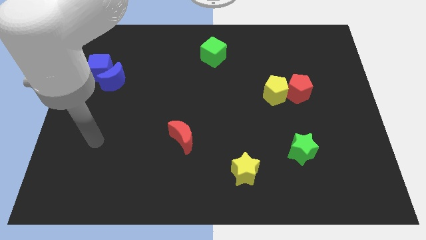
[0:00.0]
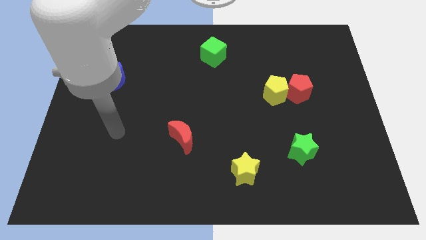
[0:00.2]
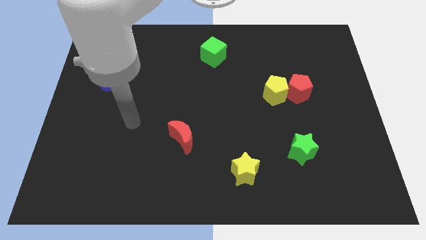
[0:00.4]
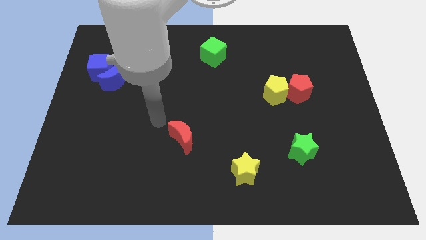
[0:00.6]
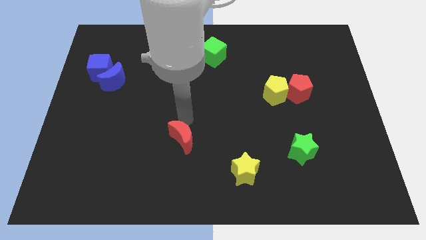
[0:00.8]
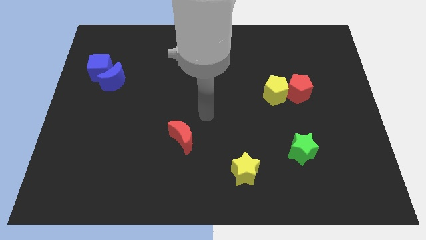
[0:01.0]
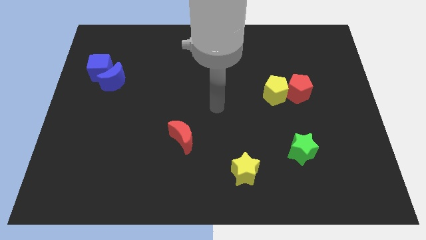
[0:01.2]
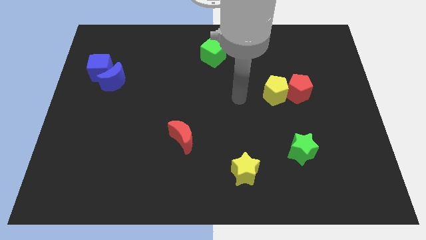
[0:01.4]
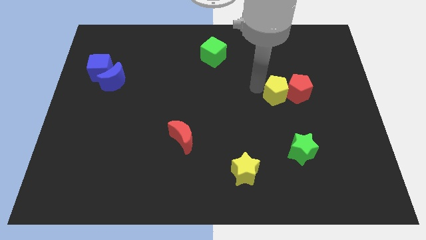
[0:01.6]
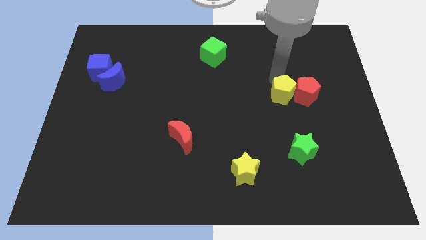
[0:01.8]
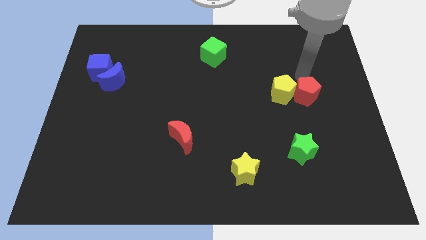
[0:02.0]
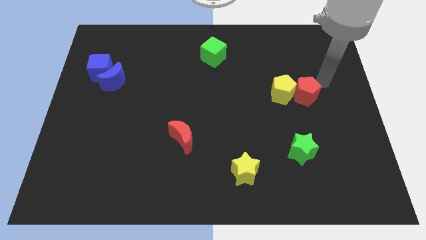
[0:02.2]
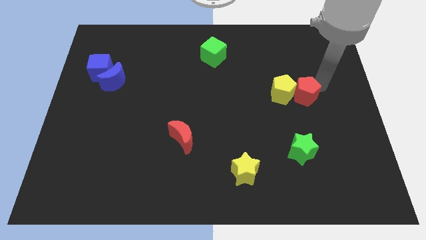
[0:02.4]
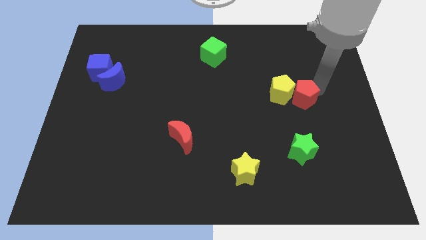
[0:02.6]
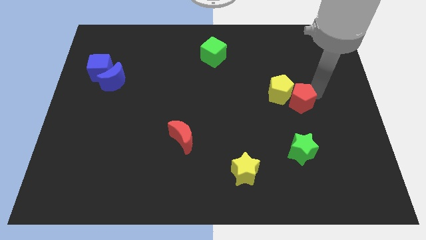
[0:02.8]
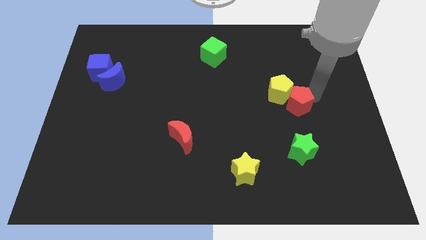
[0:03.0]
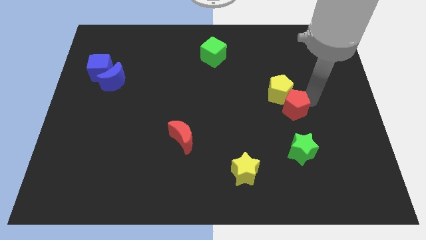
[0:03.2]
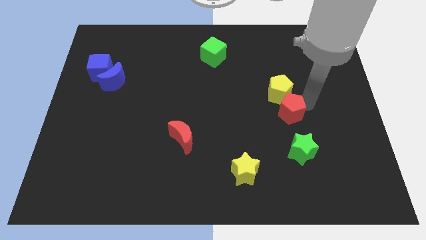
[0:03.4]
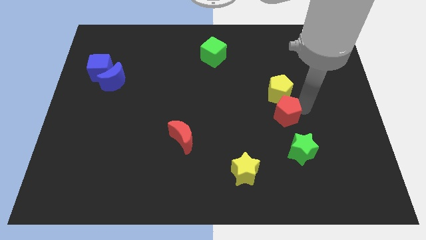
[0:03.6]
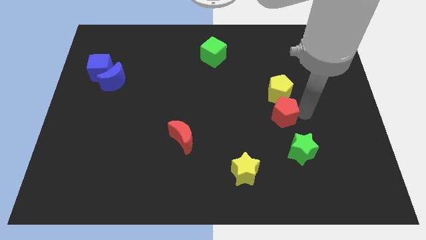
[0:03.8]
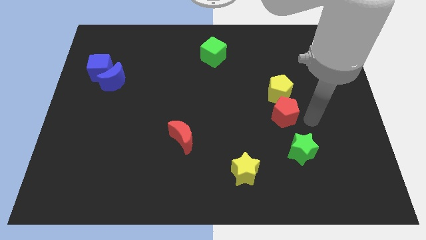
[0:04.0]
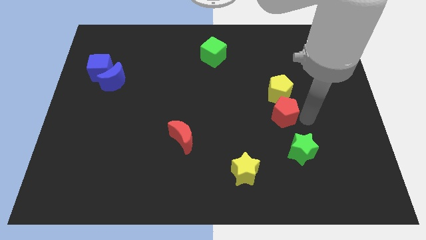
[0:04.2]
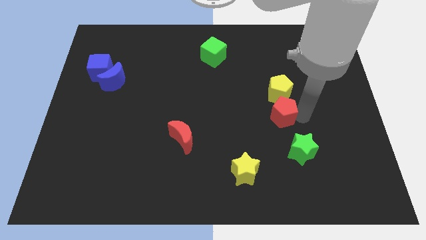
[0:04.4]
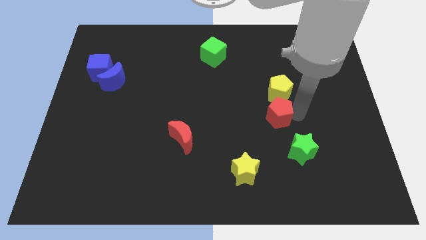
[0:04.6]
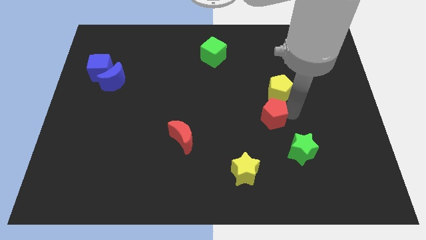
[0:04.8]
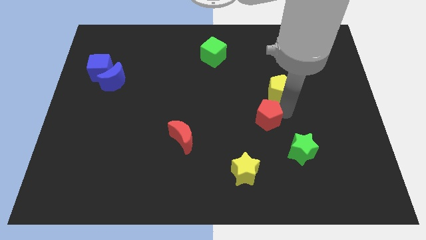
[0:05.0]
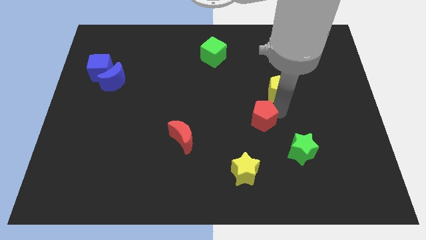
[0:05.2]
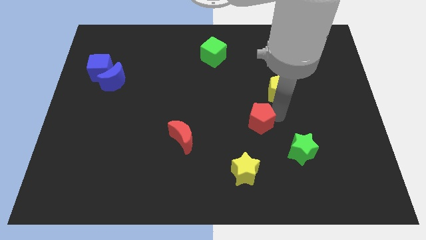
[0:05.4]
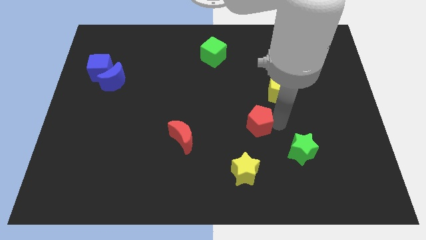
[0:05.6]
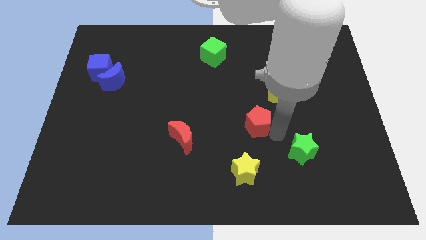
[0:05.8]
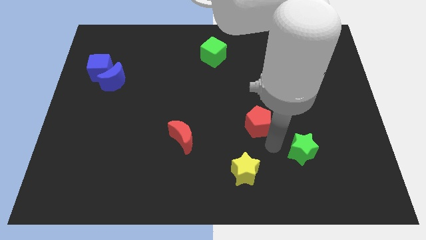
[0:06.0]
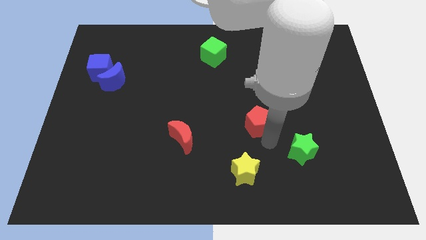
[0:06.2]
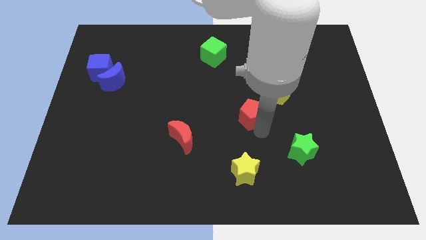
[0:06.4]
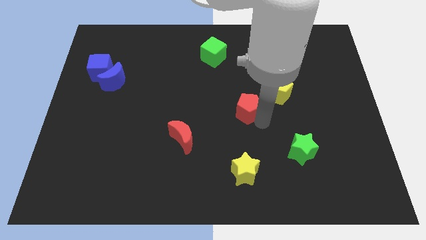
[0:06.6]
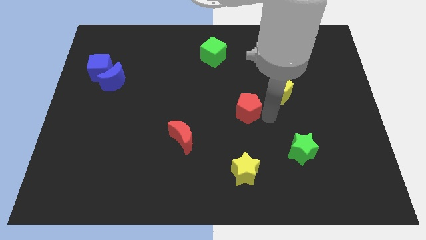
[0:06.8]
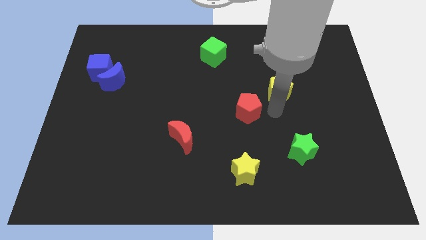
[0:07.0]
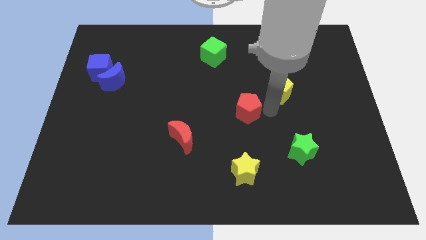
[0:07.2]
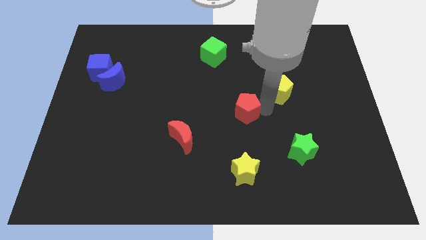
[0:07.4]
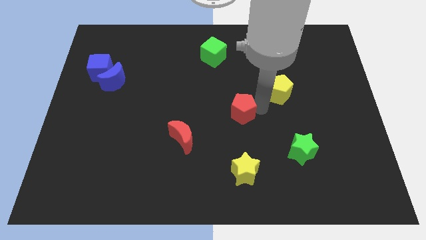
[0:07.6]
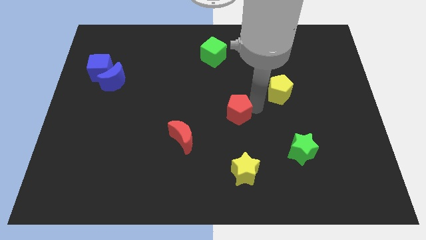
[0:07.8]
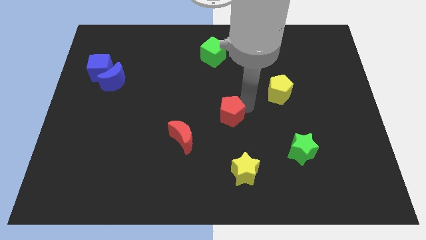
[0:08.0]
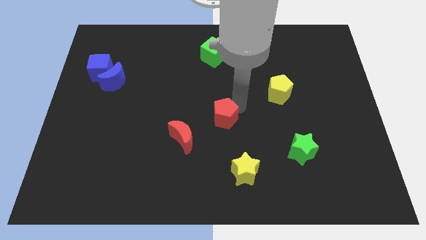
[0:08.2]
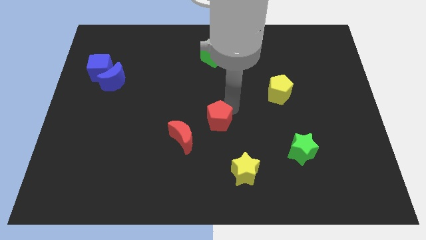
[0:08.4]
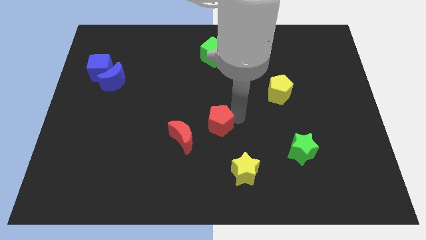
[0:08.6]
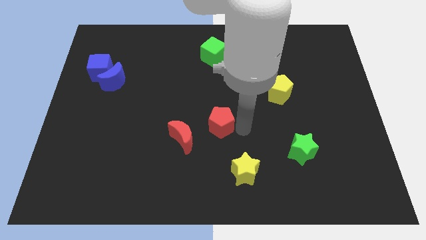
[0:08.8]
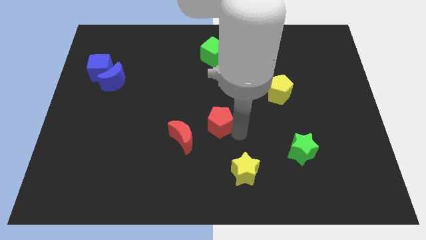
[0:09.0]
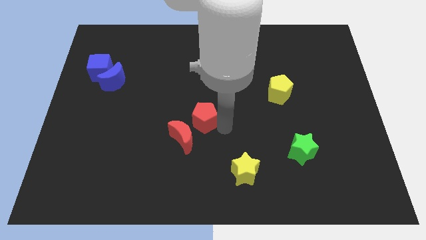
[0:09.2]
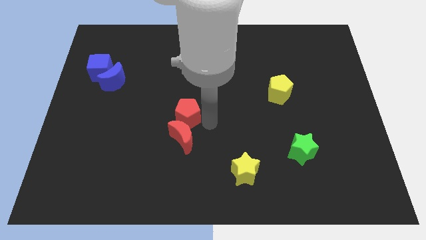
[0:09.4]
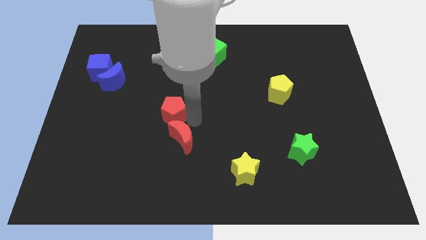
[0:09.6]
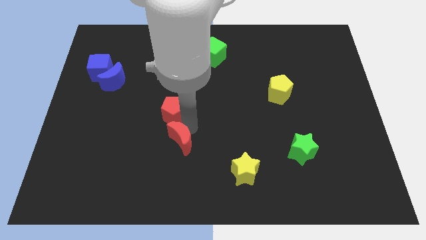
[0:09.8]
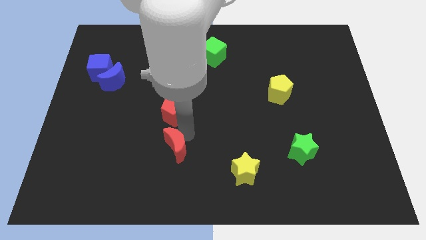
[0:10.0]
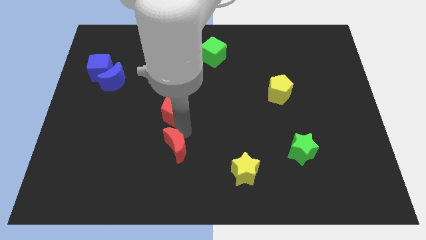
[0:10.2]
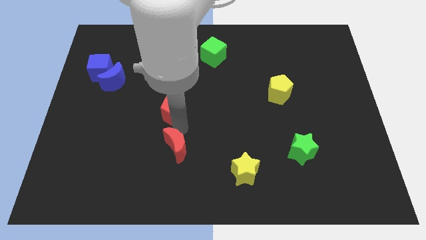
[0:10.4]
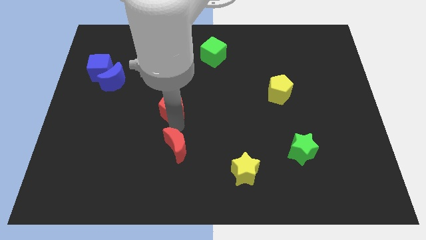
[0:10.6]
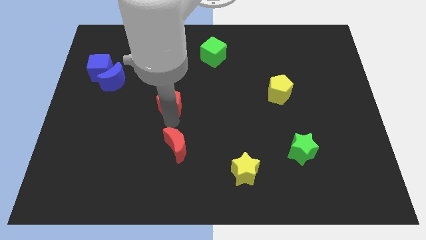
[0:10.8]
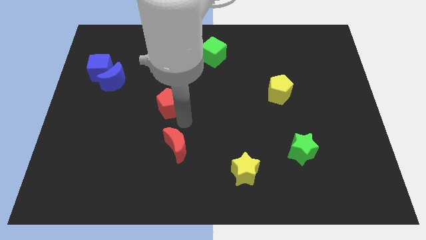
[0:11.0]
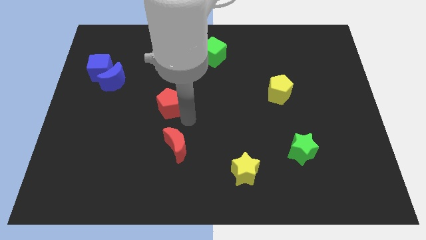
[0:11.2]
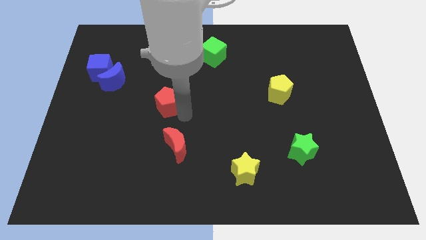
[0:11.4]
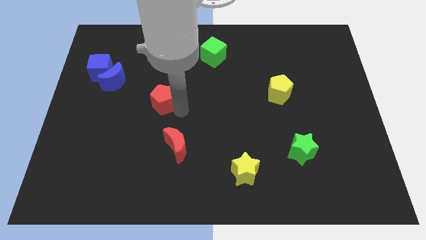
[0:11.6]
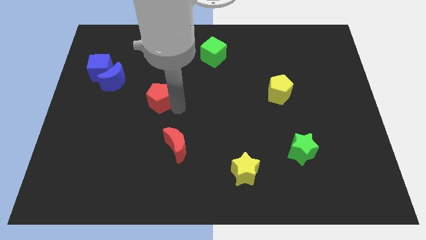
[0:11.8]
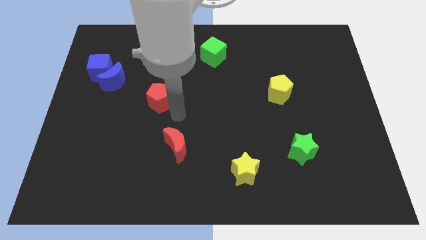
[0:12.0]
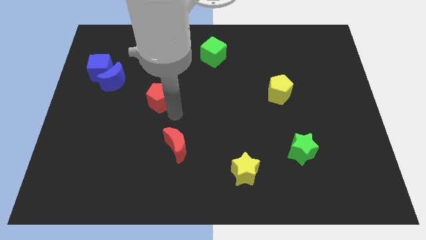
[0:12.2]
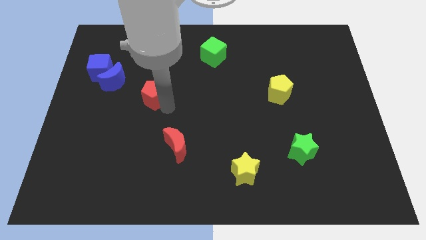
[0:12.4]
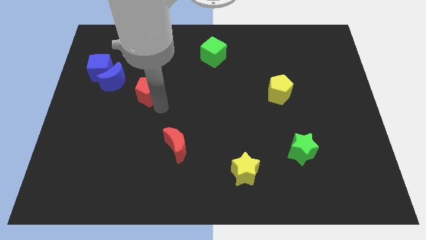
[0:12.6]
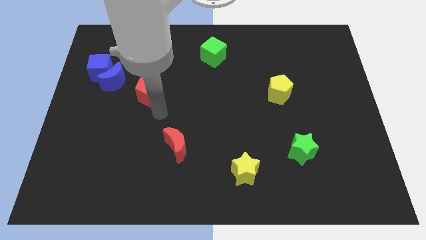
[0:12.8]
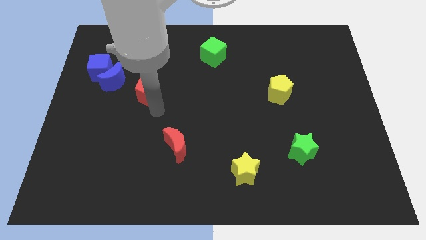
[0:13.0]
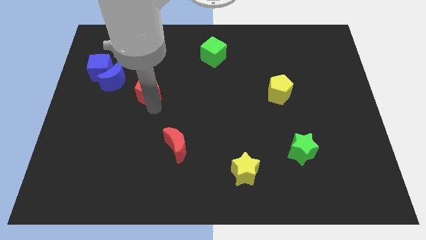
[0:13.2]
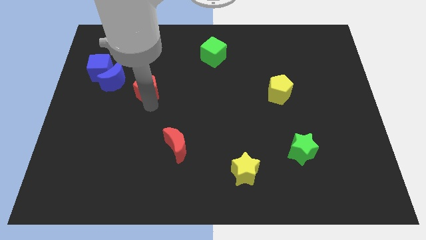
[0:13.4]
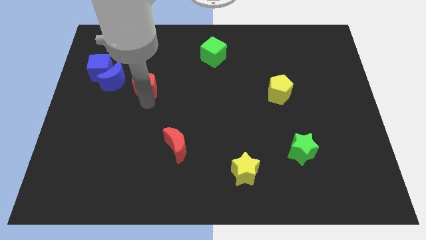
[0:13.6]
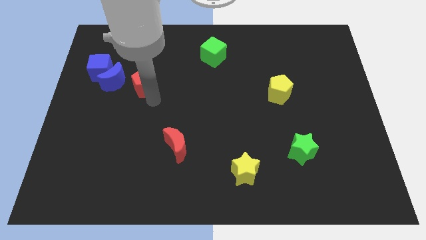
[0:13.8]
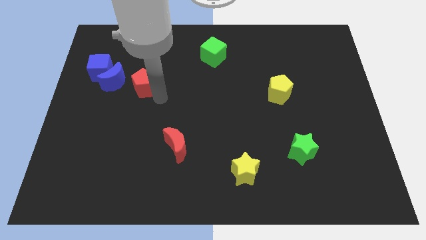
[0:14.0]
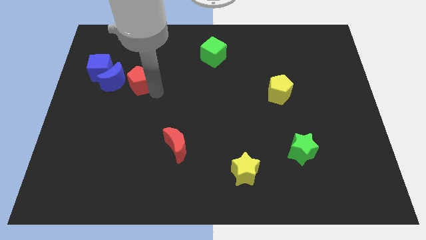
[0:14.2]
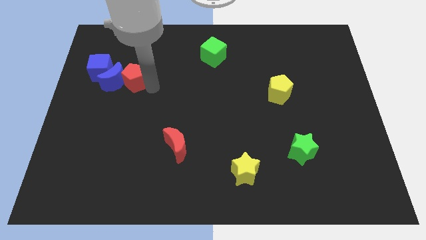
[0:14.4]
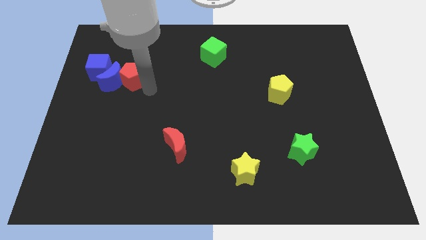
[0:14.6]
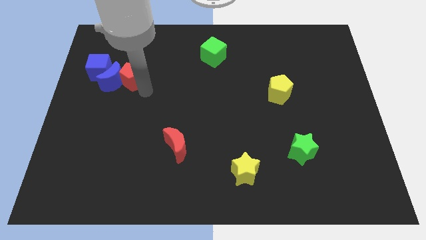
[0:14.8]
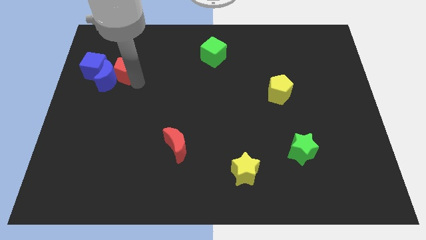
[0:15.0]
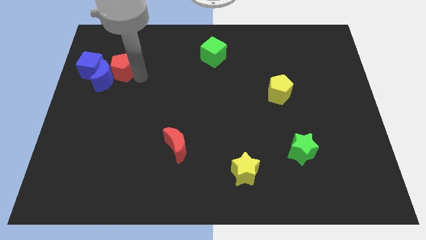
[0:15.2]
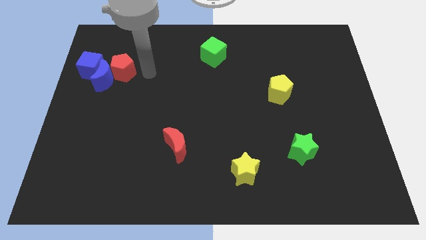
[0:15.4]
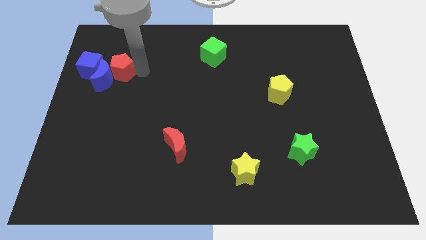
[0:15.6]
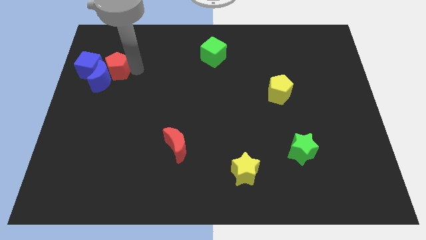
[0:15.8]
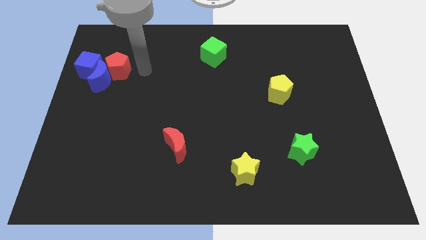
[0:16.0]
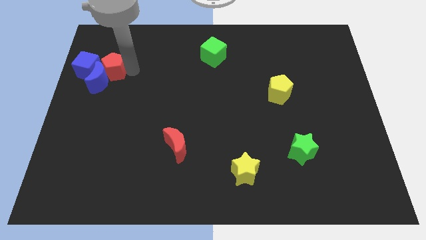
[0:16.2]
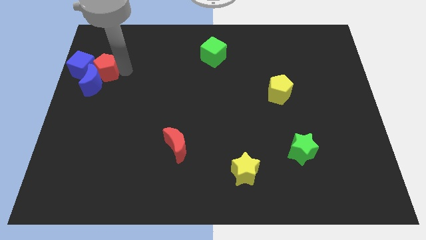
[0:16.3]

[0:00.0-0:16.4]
slide the red pentagon to the blue cube
